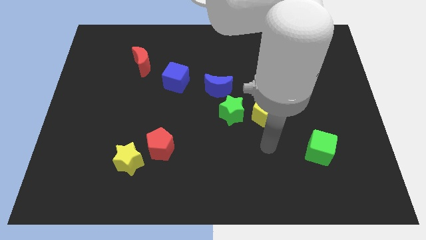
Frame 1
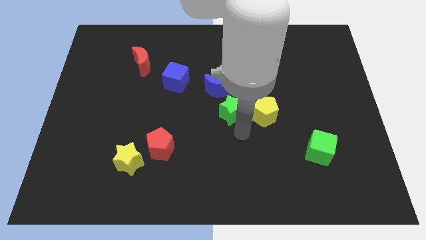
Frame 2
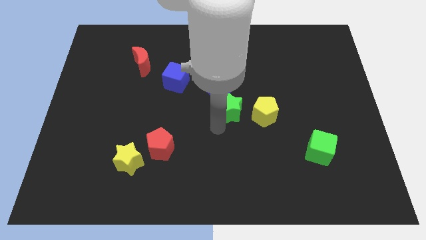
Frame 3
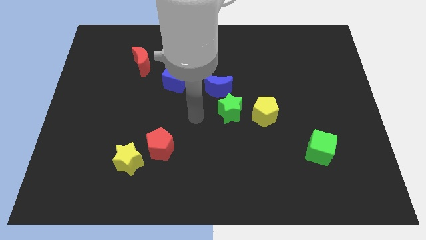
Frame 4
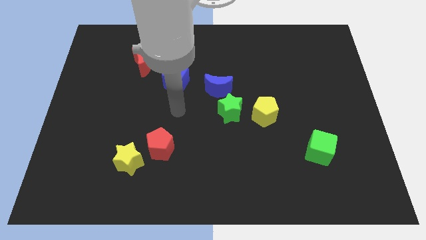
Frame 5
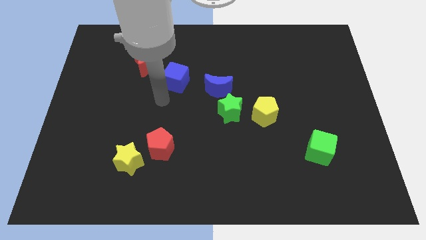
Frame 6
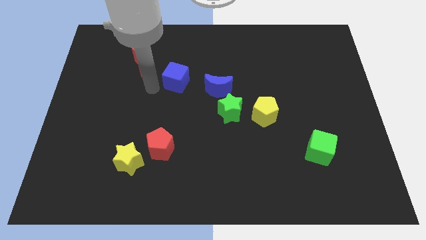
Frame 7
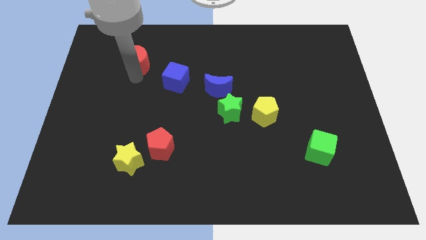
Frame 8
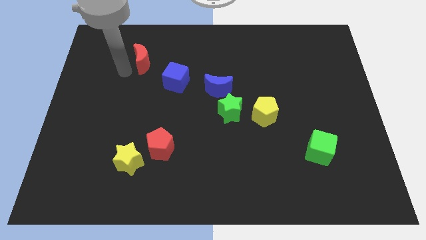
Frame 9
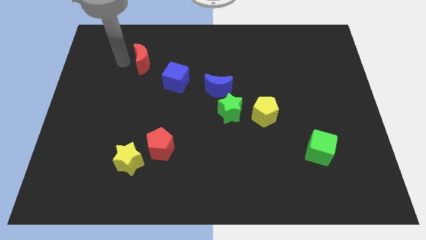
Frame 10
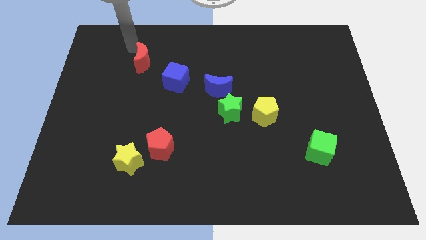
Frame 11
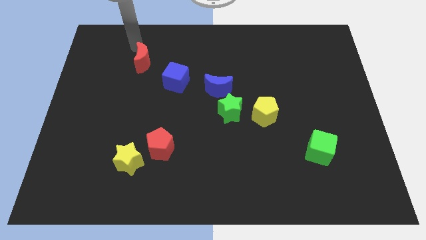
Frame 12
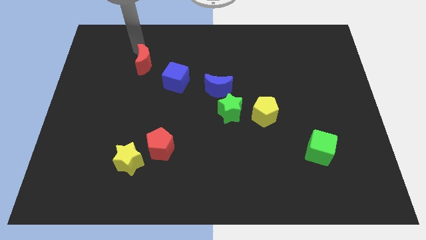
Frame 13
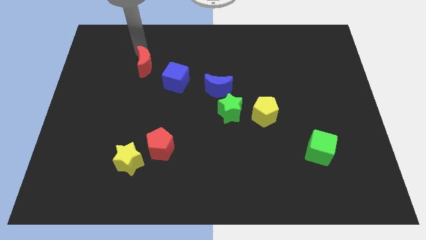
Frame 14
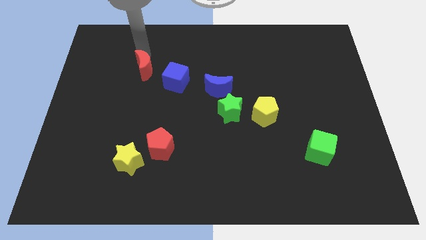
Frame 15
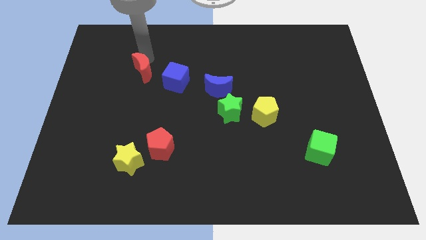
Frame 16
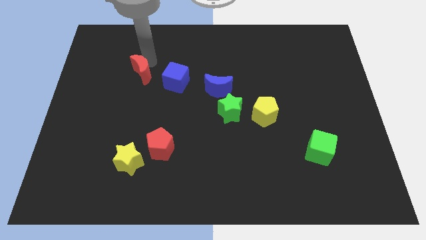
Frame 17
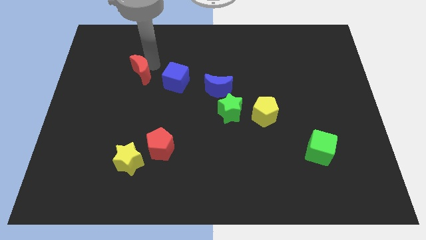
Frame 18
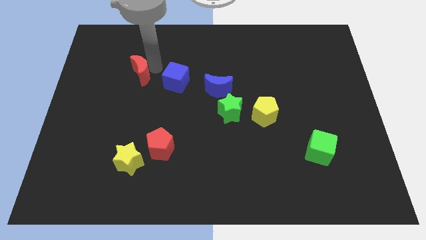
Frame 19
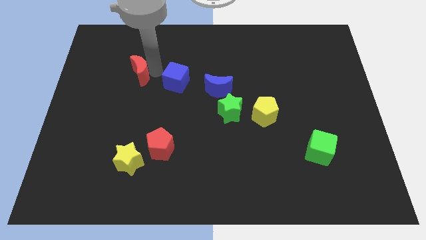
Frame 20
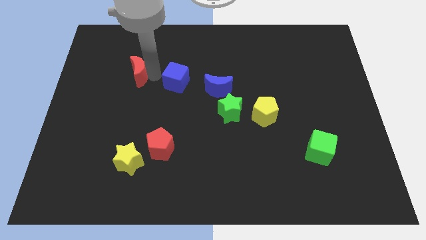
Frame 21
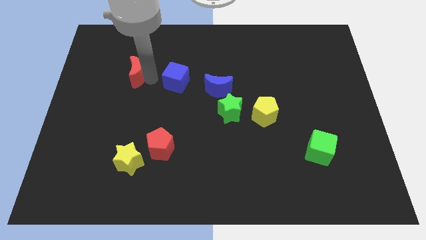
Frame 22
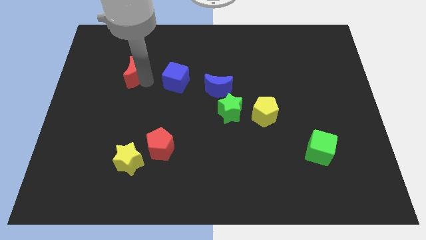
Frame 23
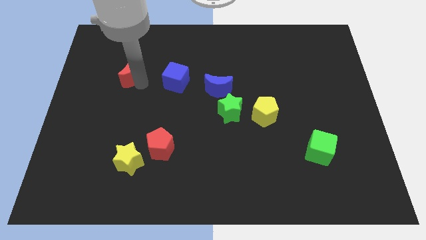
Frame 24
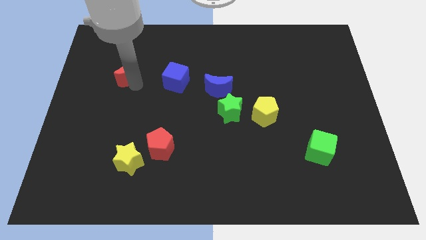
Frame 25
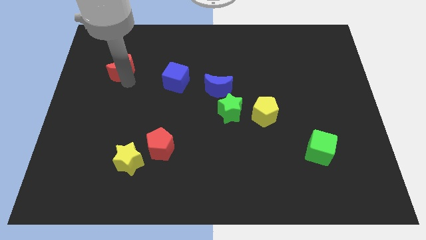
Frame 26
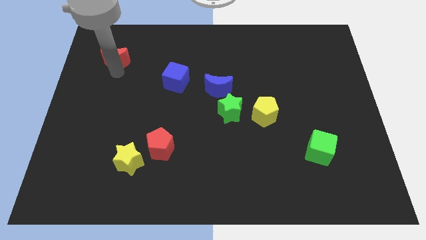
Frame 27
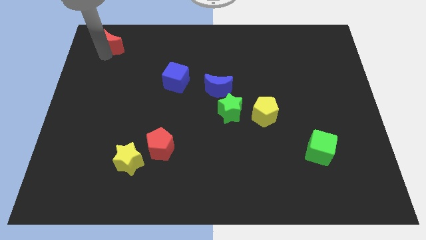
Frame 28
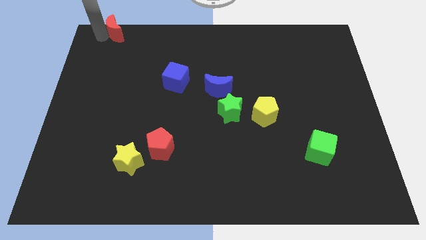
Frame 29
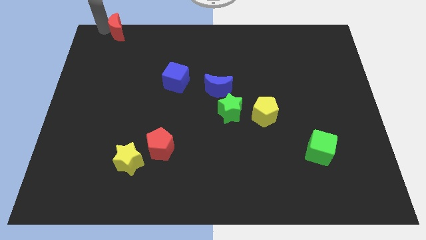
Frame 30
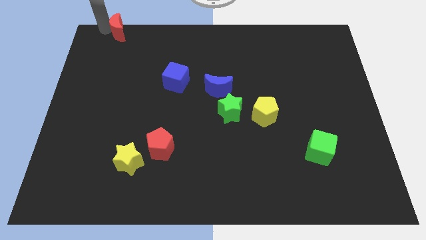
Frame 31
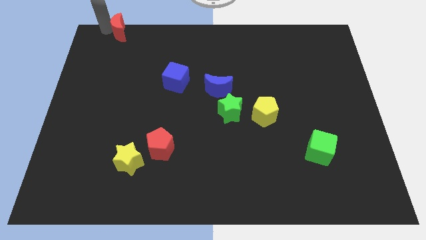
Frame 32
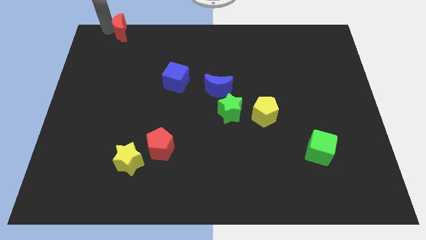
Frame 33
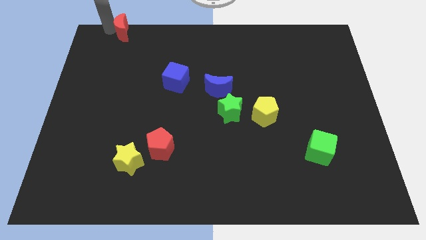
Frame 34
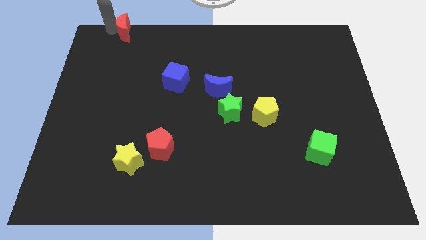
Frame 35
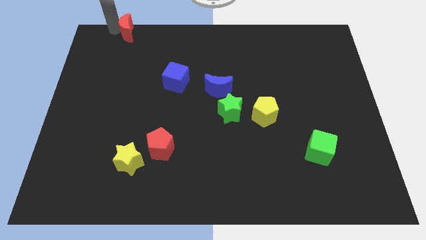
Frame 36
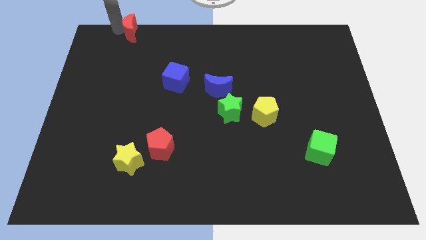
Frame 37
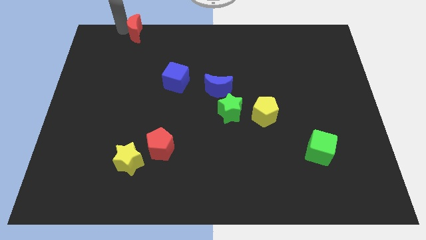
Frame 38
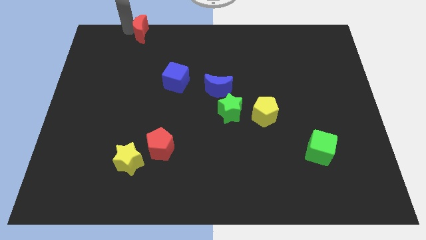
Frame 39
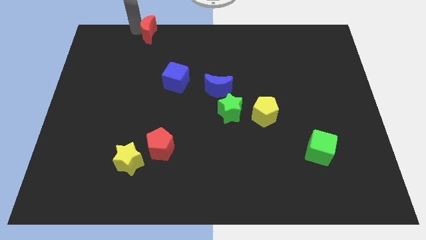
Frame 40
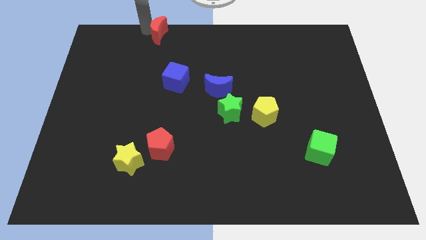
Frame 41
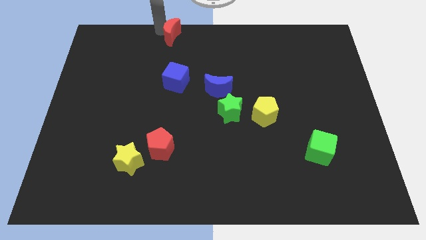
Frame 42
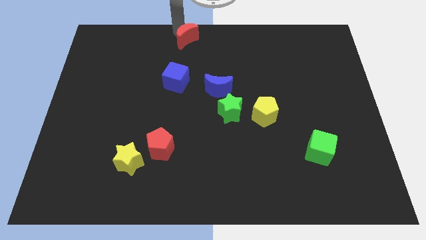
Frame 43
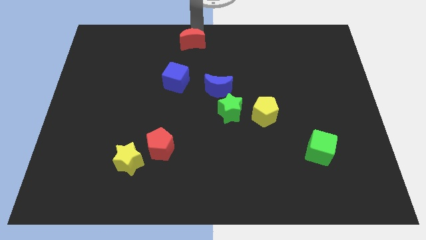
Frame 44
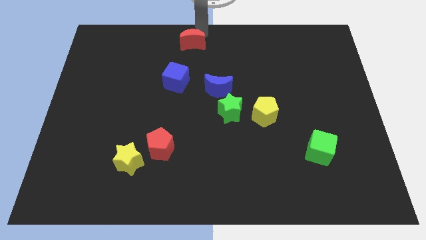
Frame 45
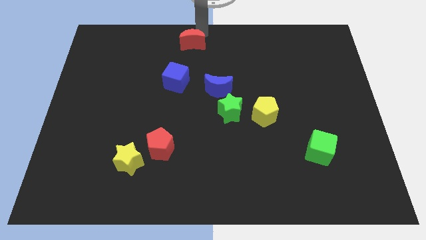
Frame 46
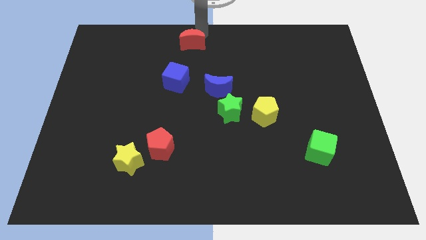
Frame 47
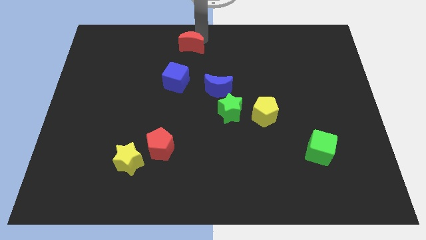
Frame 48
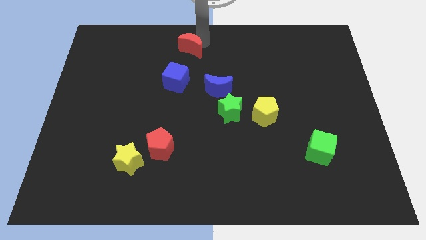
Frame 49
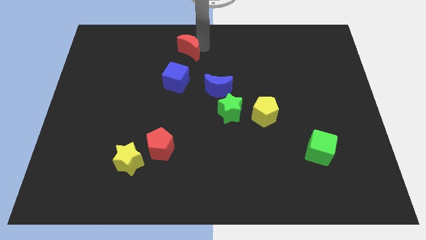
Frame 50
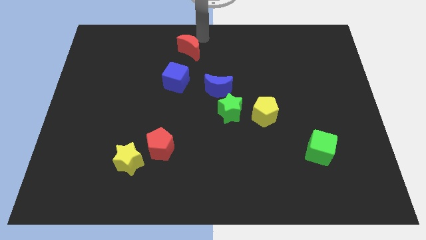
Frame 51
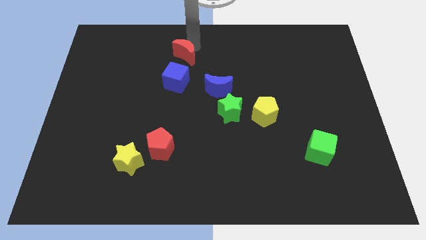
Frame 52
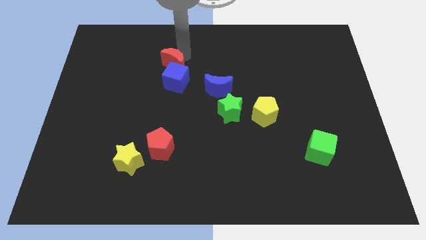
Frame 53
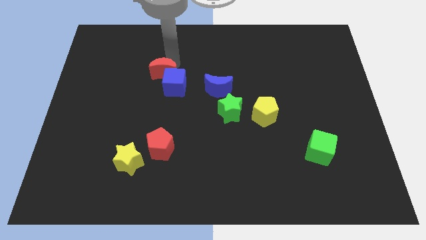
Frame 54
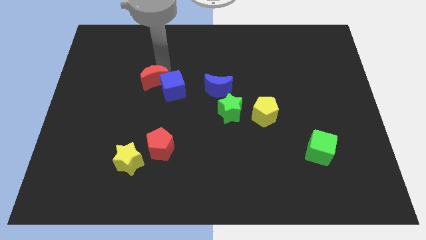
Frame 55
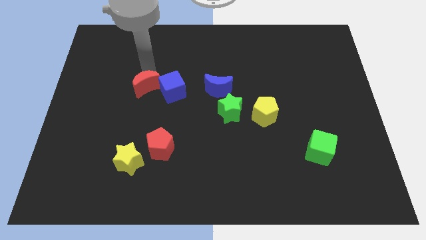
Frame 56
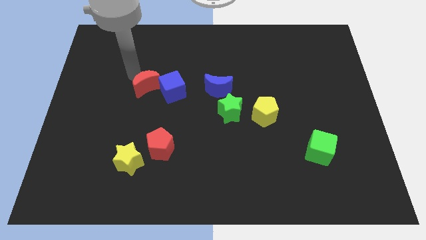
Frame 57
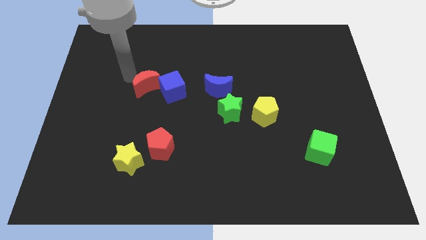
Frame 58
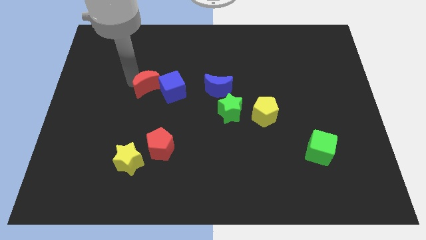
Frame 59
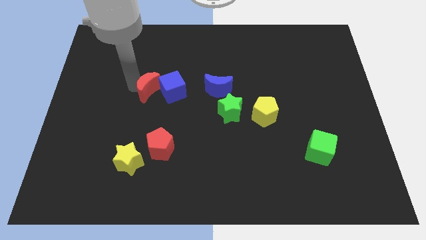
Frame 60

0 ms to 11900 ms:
slightly slide the red moon down and to the right

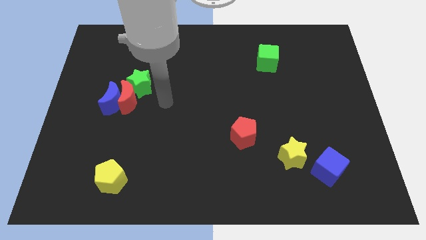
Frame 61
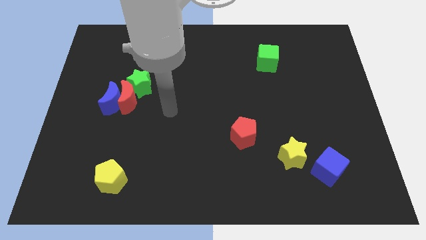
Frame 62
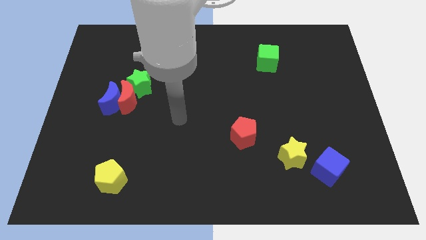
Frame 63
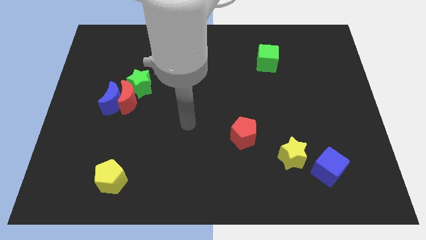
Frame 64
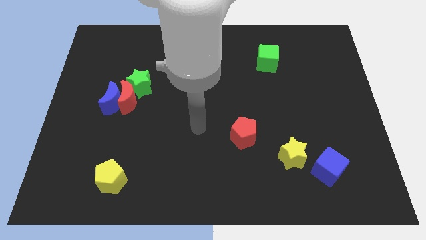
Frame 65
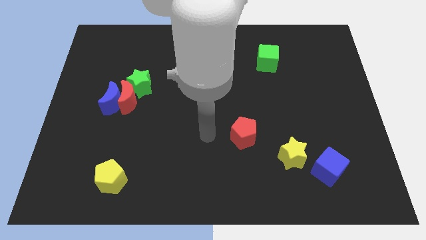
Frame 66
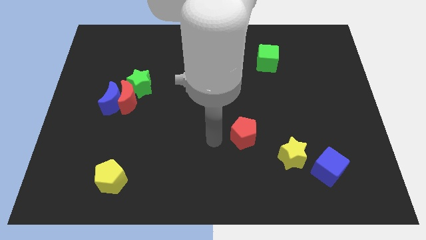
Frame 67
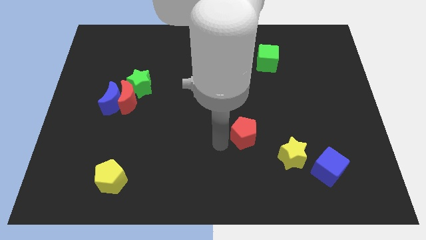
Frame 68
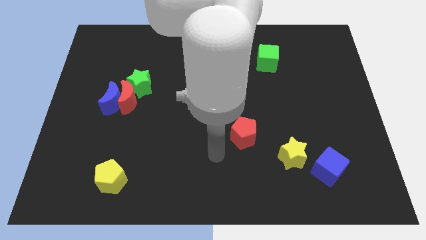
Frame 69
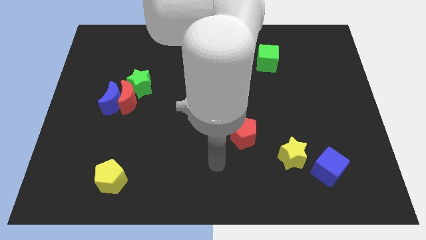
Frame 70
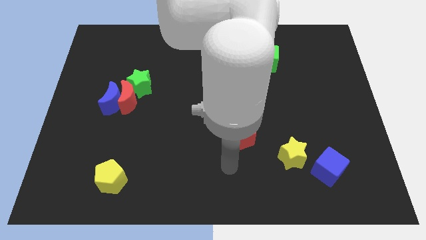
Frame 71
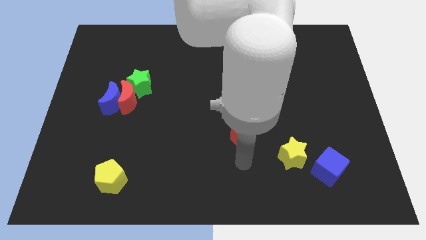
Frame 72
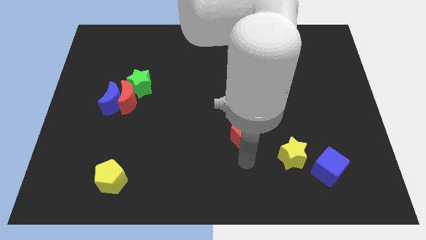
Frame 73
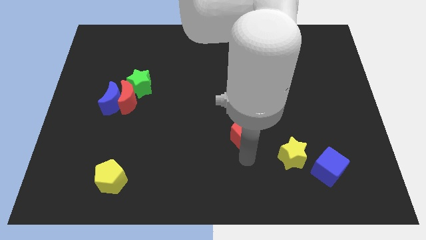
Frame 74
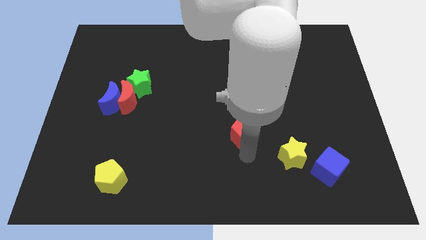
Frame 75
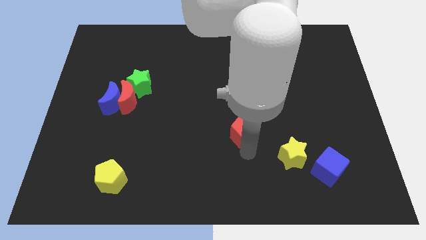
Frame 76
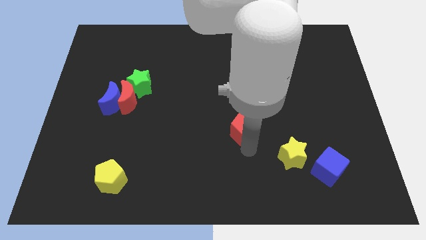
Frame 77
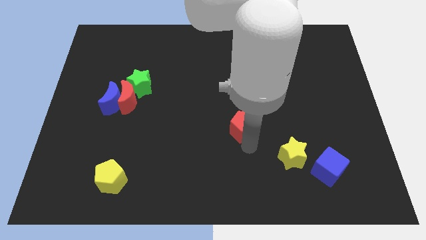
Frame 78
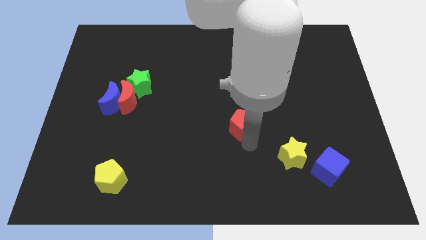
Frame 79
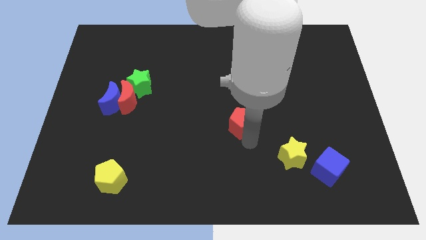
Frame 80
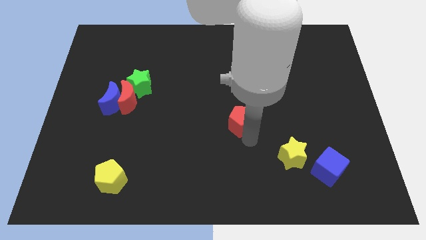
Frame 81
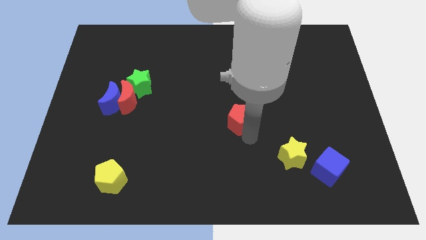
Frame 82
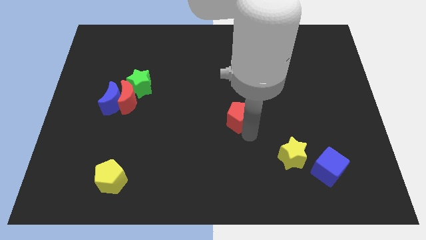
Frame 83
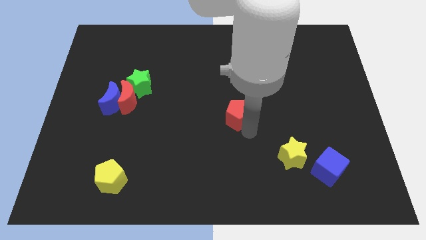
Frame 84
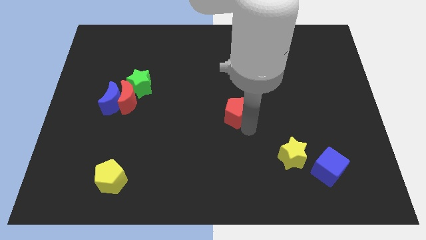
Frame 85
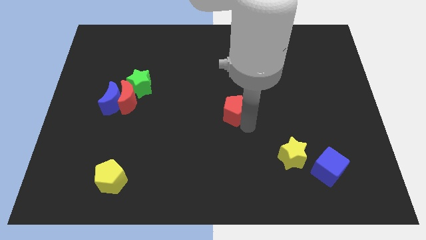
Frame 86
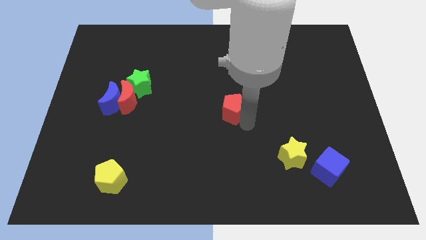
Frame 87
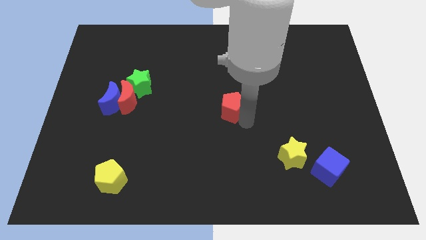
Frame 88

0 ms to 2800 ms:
push the red pentagon up slightly
